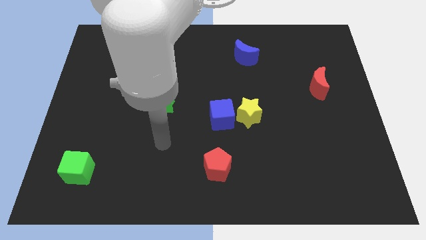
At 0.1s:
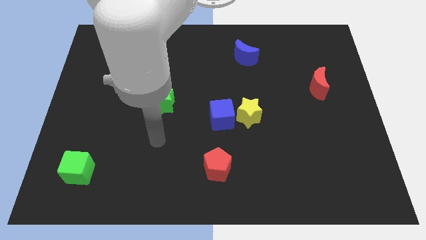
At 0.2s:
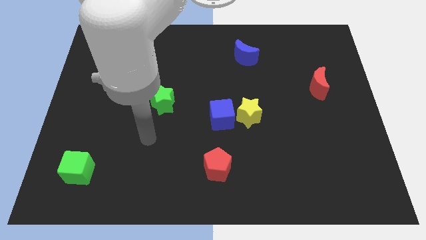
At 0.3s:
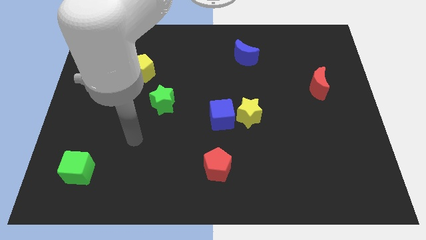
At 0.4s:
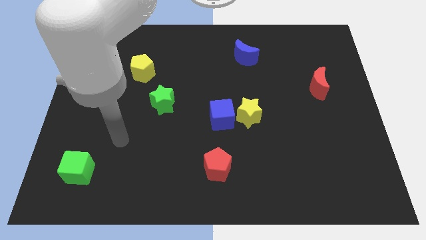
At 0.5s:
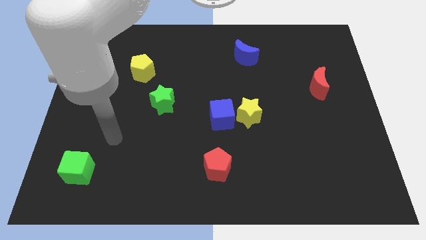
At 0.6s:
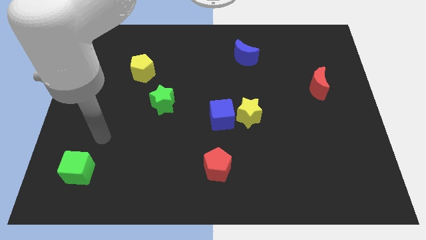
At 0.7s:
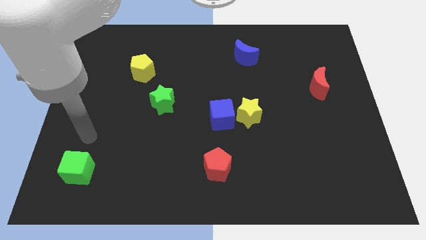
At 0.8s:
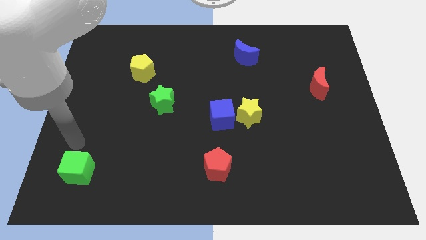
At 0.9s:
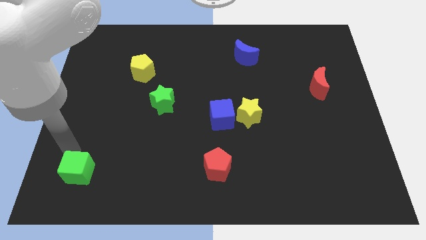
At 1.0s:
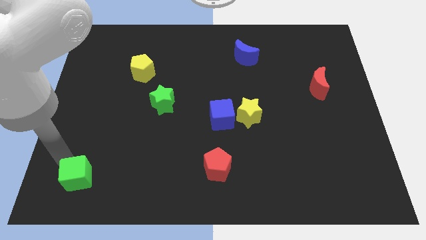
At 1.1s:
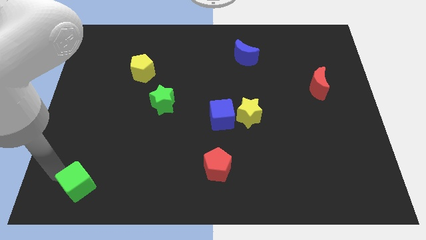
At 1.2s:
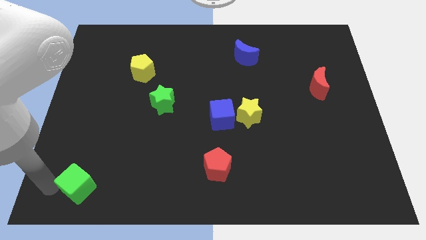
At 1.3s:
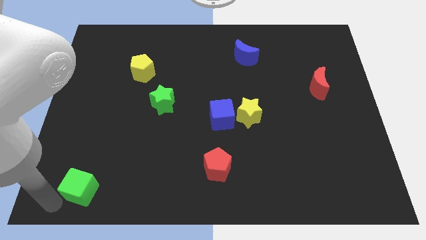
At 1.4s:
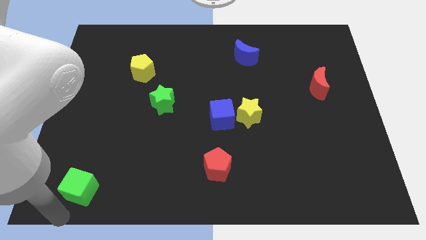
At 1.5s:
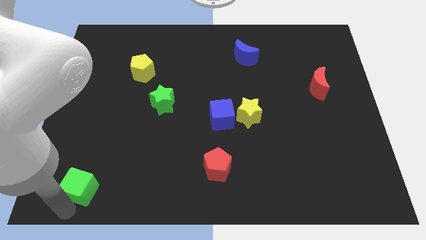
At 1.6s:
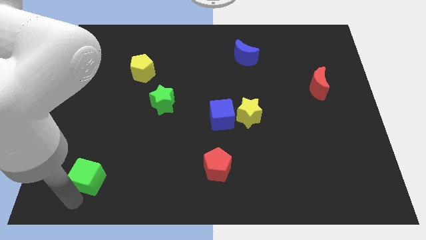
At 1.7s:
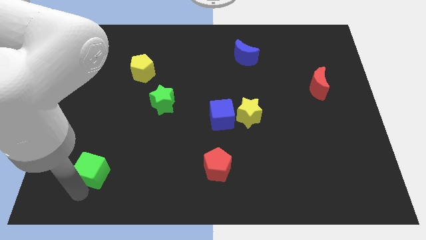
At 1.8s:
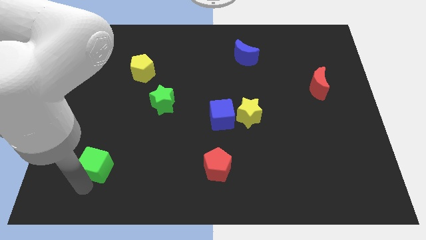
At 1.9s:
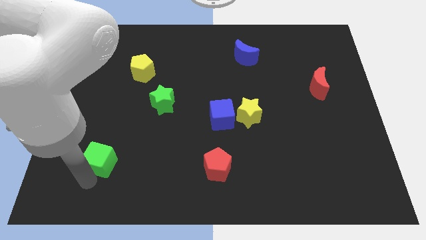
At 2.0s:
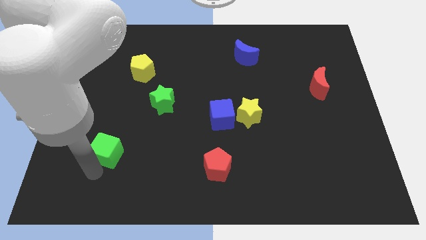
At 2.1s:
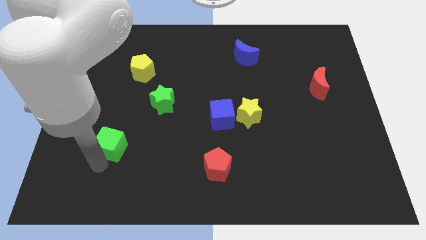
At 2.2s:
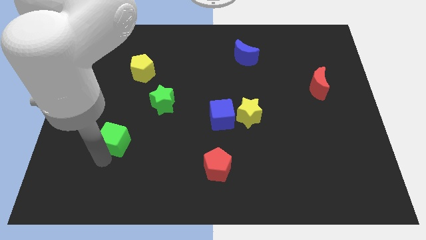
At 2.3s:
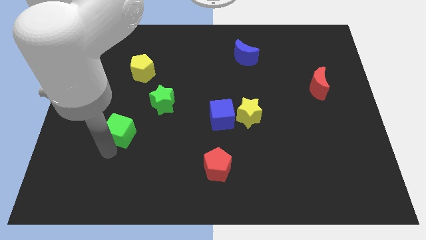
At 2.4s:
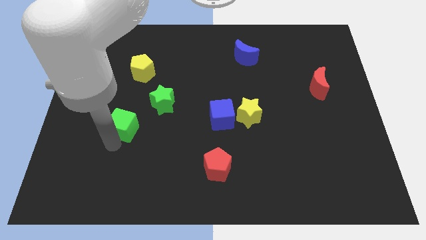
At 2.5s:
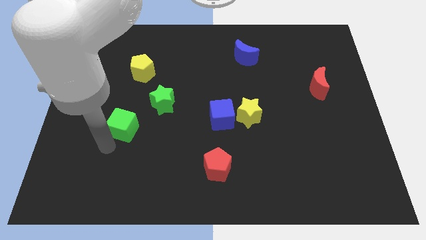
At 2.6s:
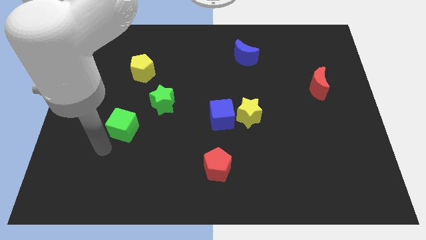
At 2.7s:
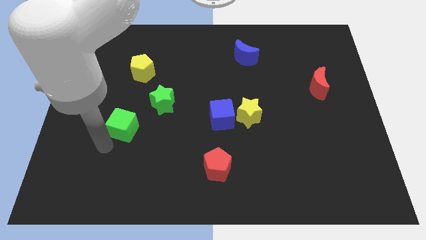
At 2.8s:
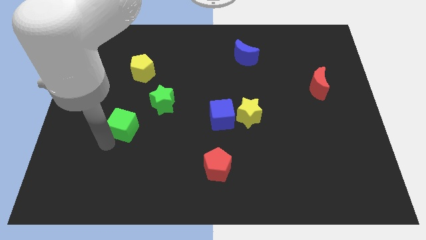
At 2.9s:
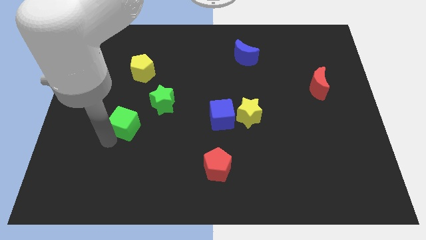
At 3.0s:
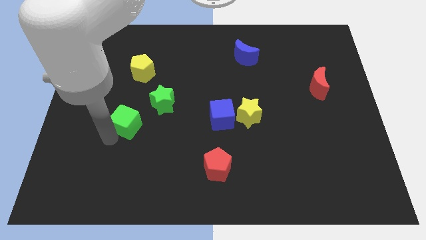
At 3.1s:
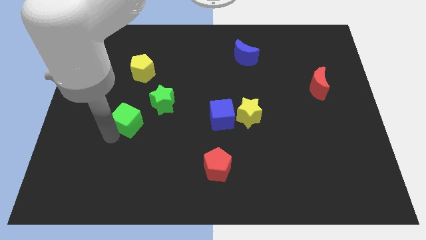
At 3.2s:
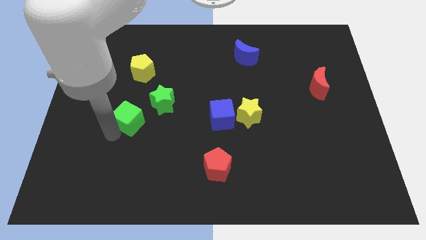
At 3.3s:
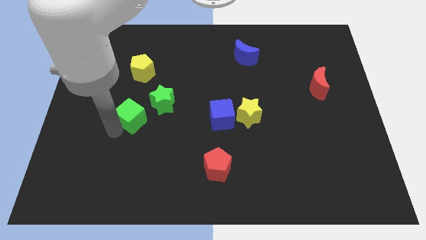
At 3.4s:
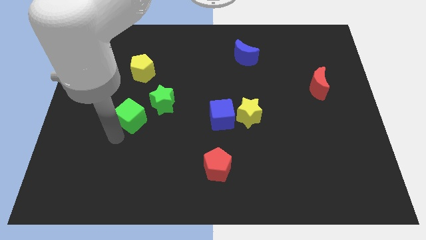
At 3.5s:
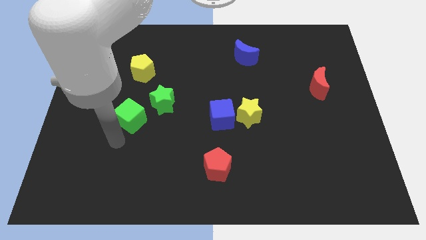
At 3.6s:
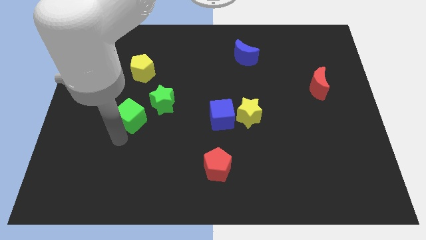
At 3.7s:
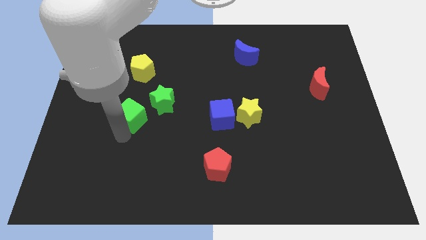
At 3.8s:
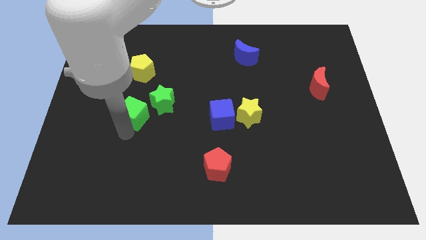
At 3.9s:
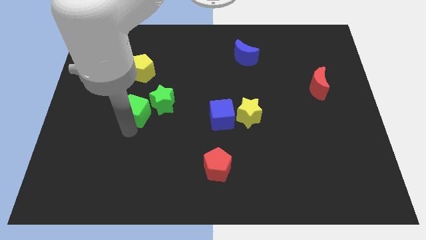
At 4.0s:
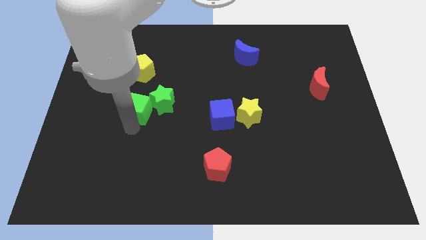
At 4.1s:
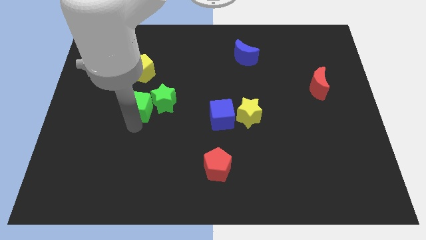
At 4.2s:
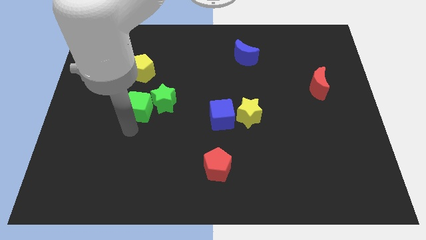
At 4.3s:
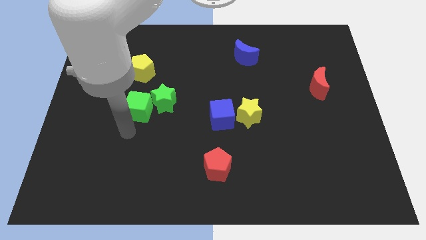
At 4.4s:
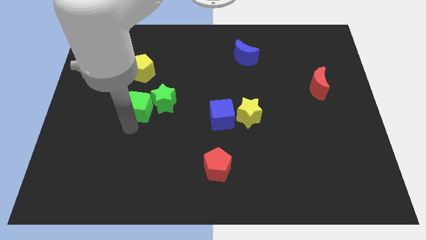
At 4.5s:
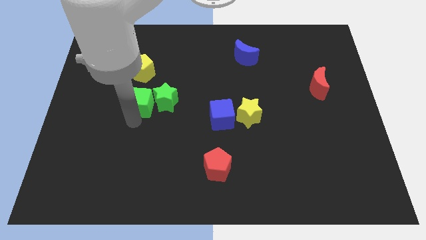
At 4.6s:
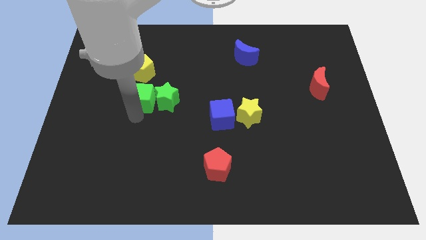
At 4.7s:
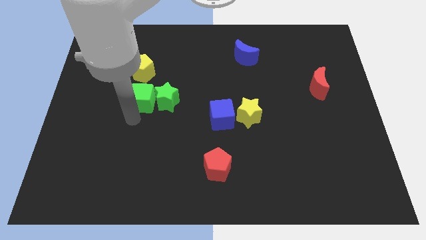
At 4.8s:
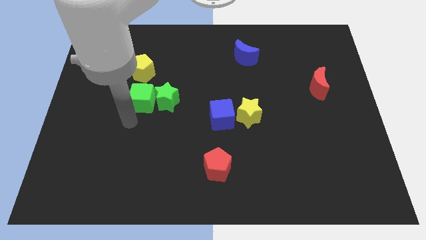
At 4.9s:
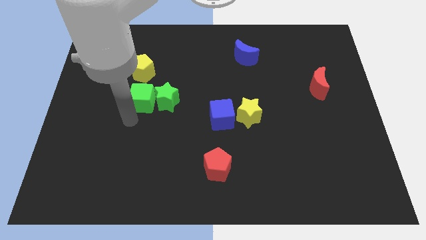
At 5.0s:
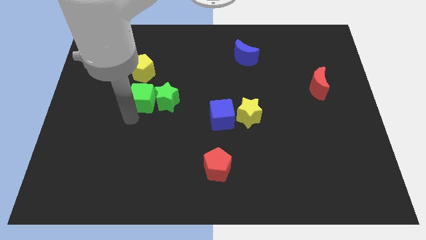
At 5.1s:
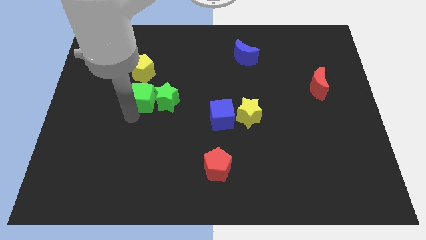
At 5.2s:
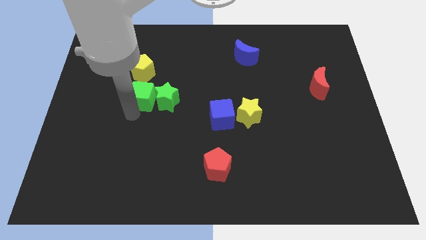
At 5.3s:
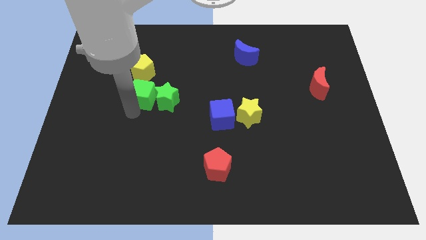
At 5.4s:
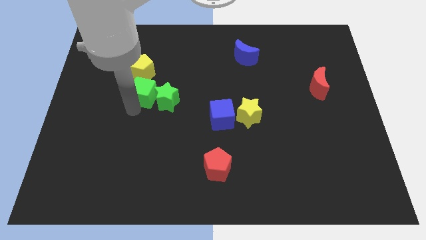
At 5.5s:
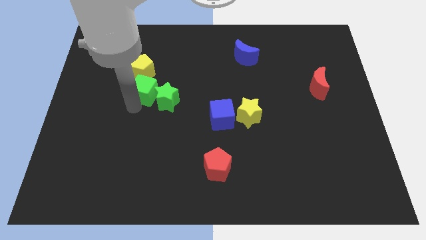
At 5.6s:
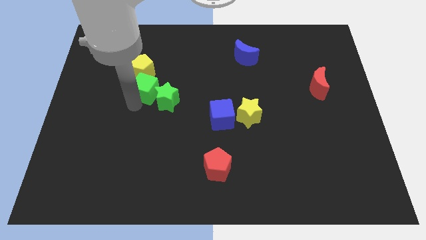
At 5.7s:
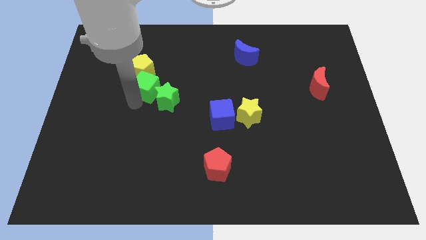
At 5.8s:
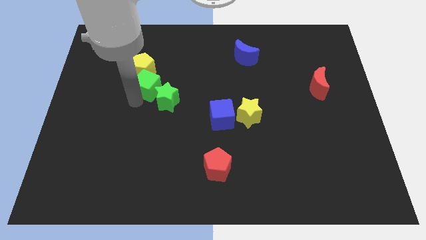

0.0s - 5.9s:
move the green cube above the green star

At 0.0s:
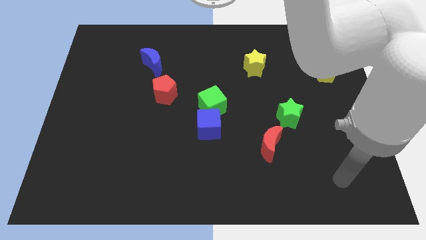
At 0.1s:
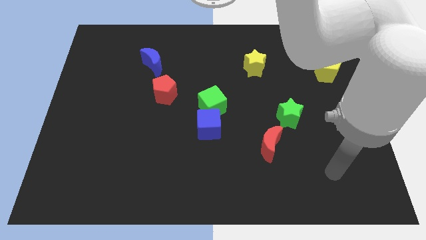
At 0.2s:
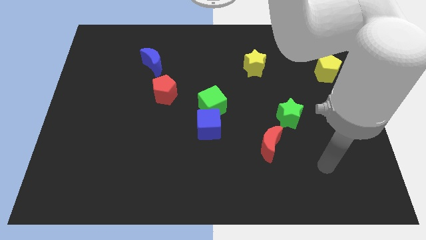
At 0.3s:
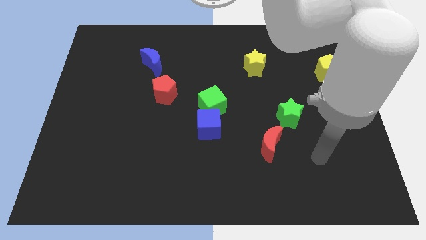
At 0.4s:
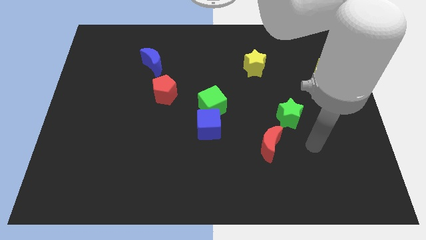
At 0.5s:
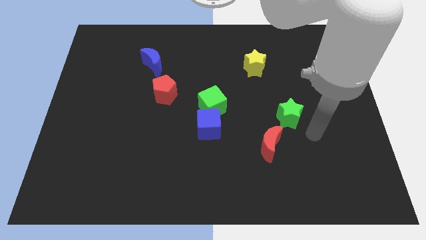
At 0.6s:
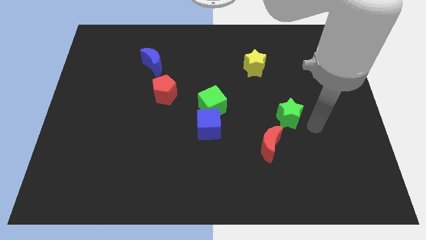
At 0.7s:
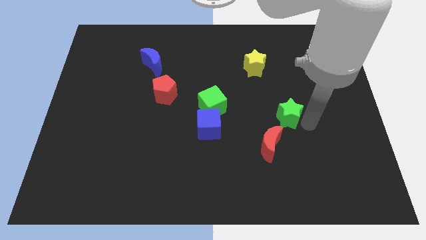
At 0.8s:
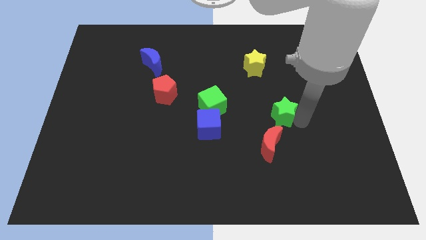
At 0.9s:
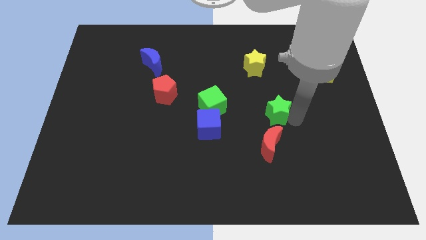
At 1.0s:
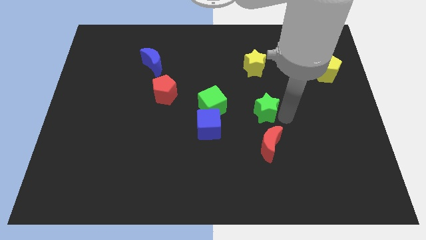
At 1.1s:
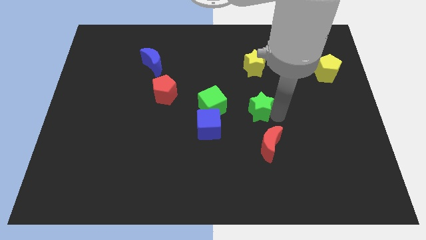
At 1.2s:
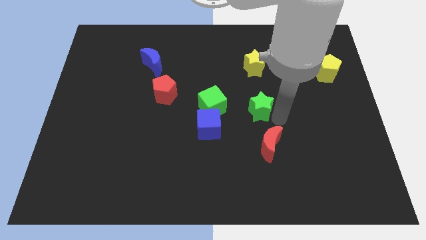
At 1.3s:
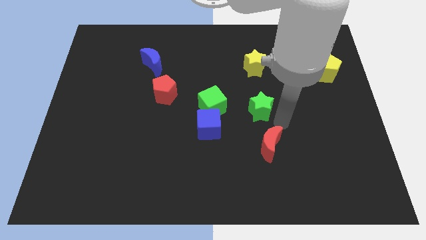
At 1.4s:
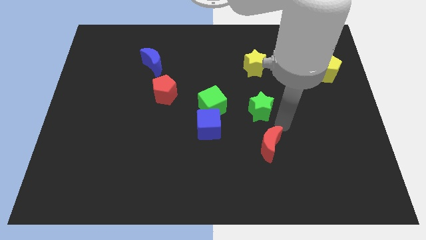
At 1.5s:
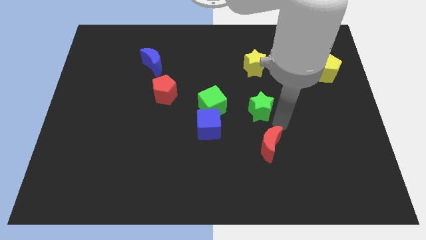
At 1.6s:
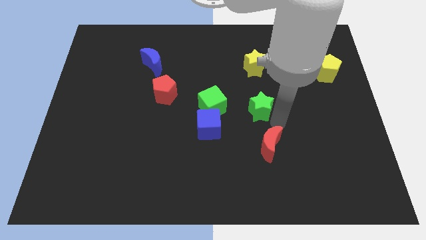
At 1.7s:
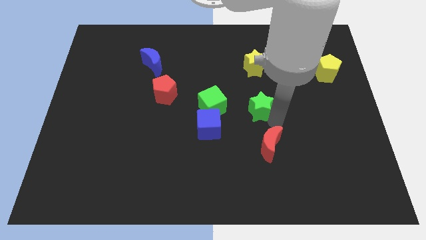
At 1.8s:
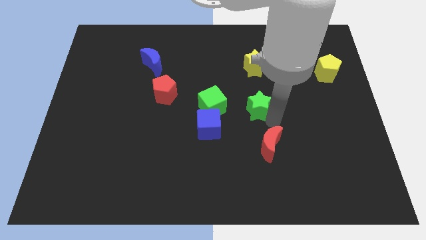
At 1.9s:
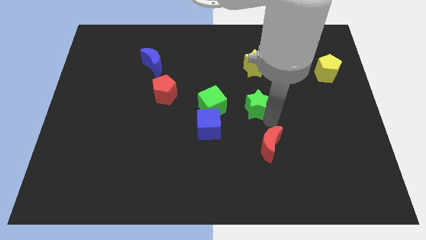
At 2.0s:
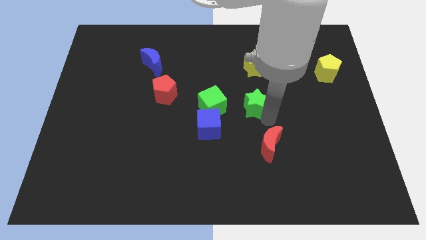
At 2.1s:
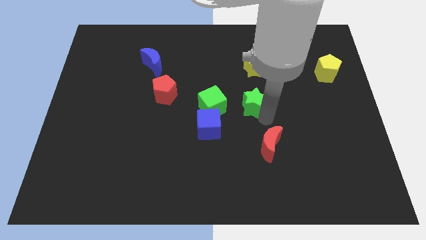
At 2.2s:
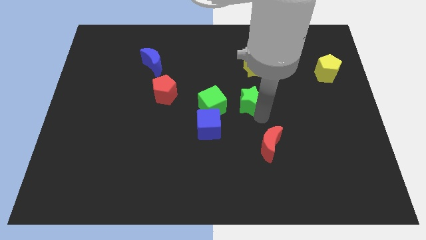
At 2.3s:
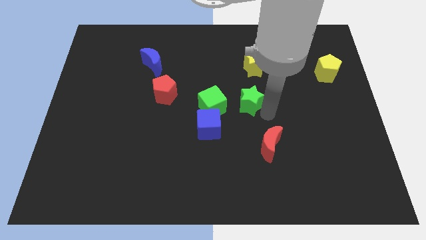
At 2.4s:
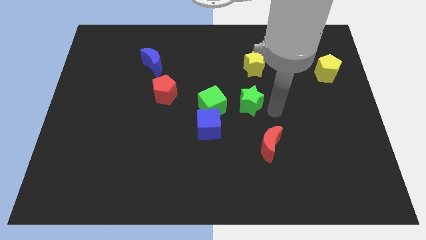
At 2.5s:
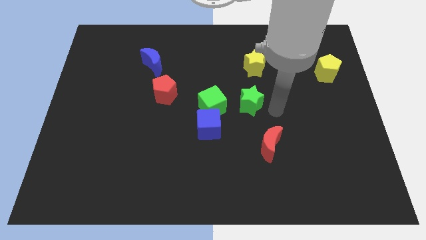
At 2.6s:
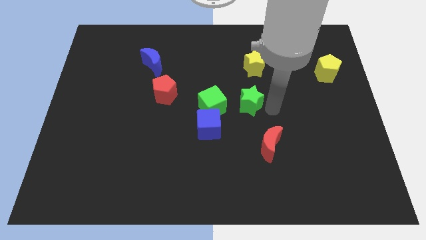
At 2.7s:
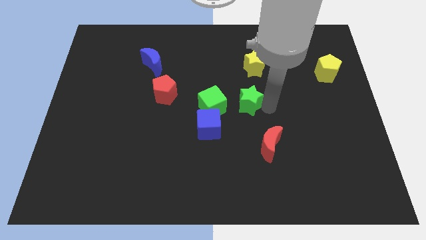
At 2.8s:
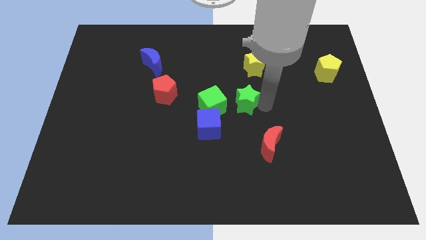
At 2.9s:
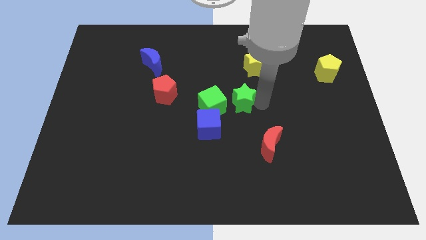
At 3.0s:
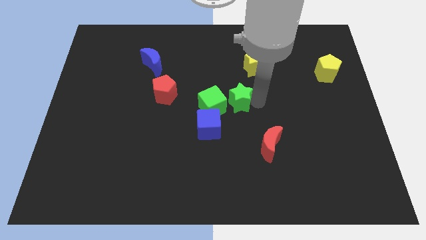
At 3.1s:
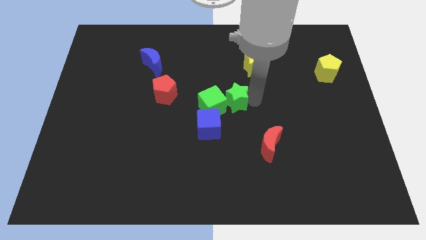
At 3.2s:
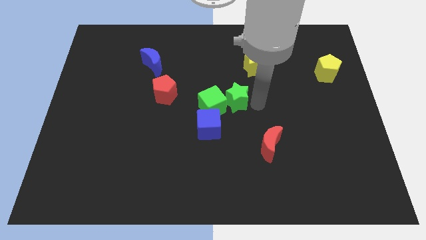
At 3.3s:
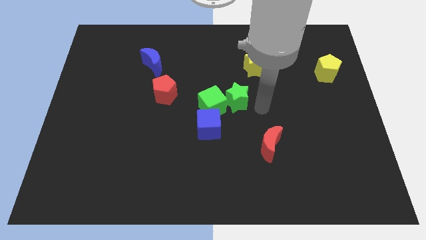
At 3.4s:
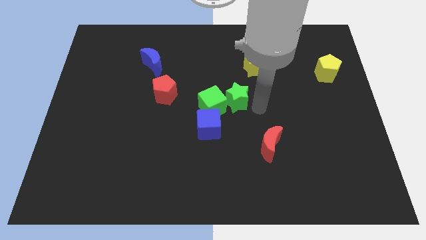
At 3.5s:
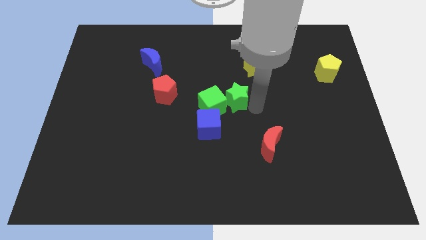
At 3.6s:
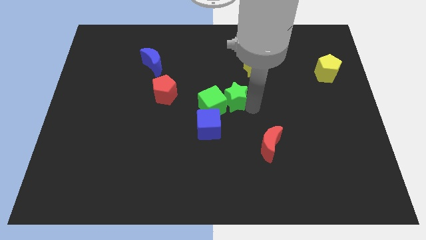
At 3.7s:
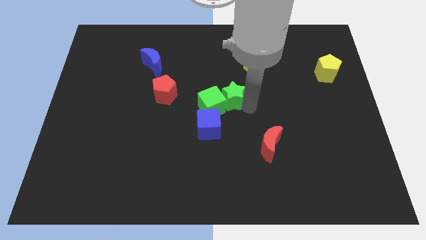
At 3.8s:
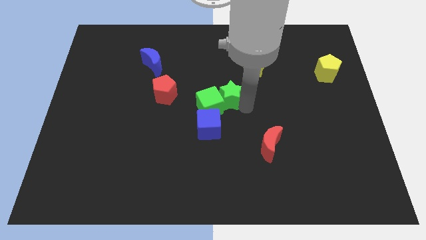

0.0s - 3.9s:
move the green star just right of the red pentagon
